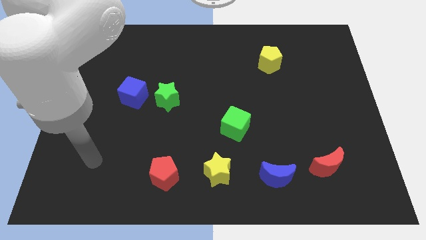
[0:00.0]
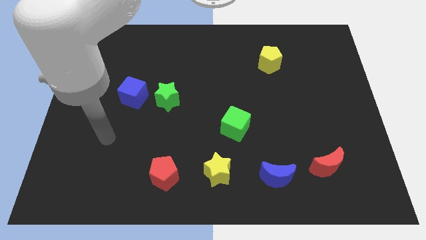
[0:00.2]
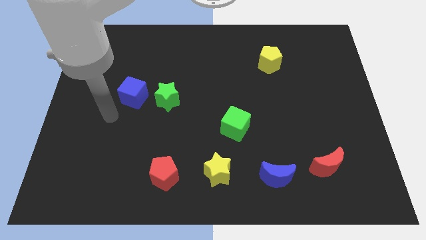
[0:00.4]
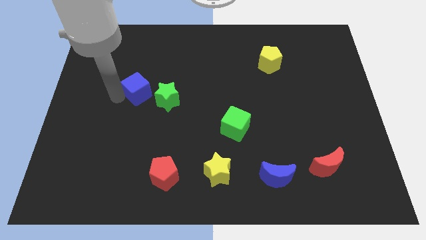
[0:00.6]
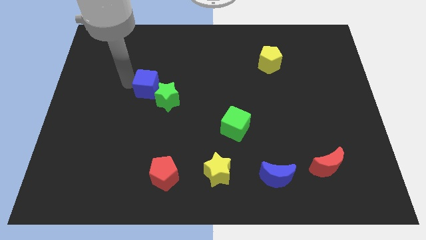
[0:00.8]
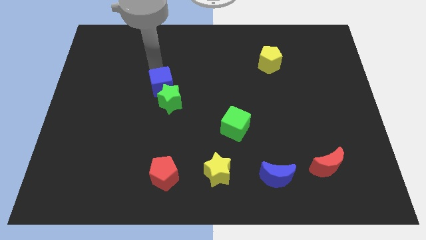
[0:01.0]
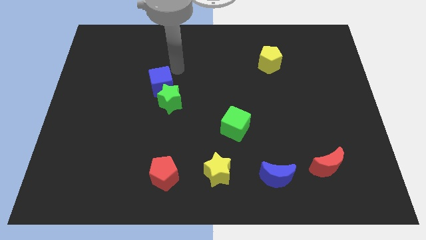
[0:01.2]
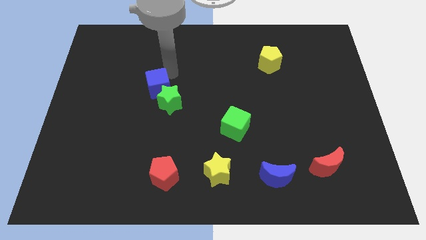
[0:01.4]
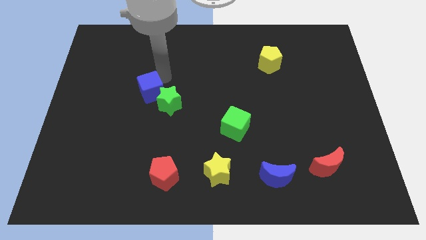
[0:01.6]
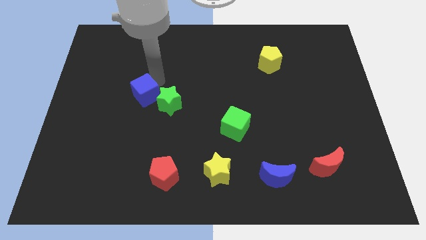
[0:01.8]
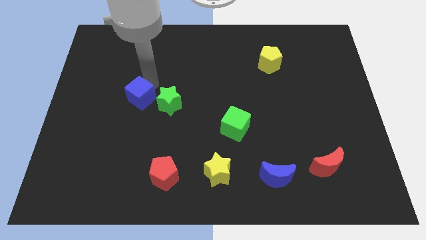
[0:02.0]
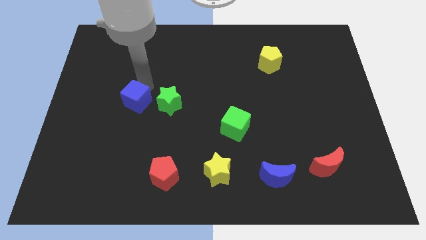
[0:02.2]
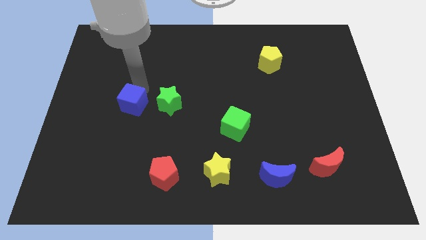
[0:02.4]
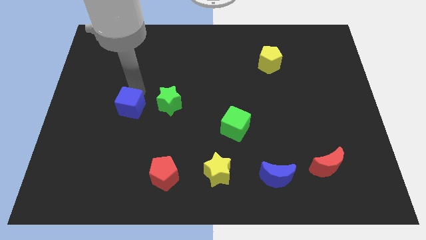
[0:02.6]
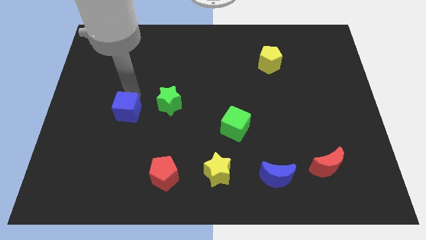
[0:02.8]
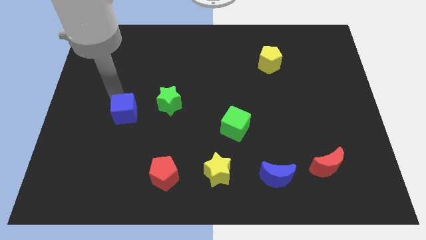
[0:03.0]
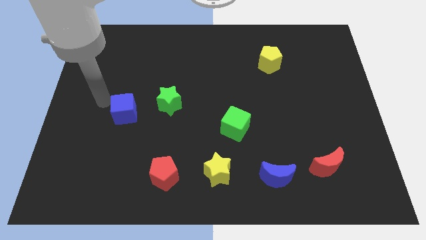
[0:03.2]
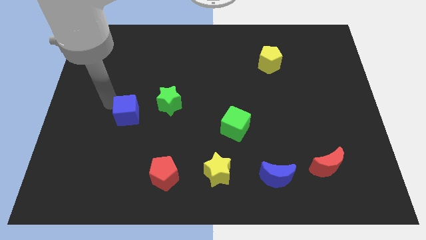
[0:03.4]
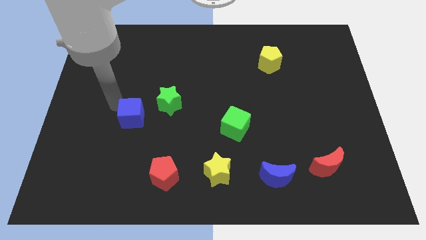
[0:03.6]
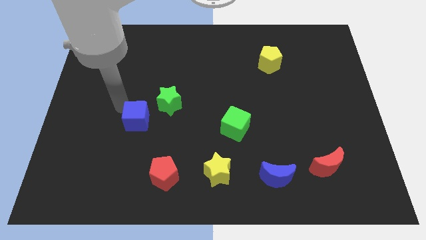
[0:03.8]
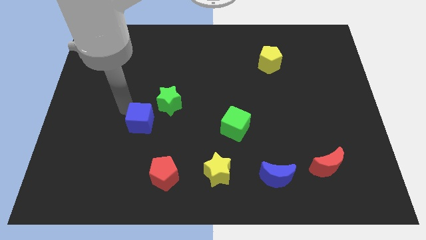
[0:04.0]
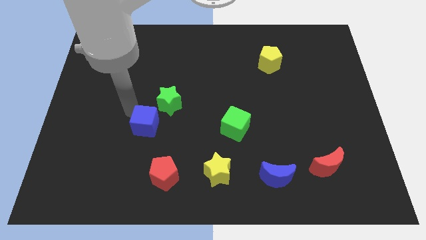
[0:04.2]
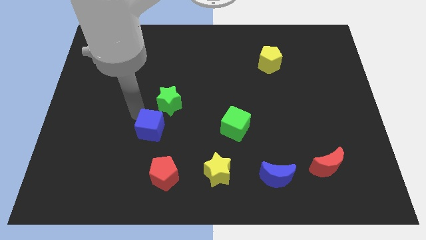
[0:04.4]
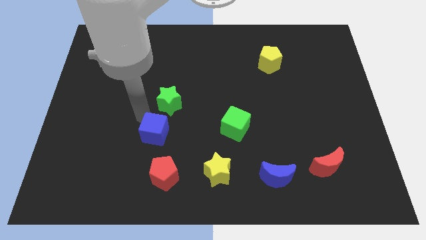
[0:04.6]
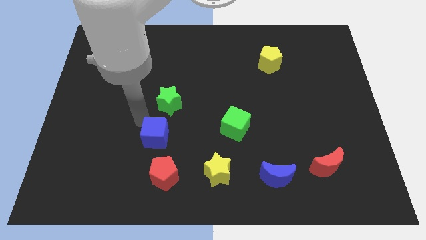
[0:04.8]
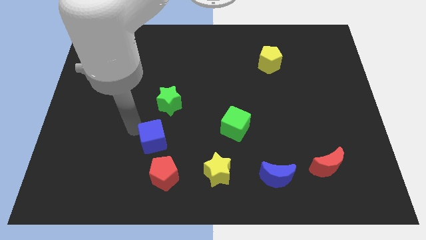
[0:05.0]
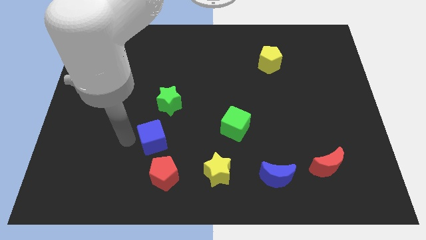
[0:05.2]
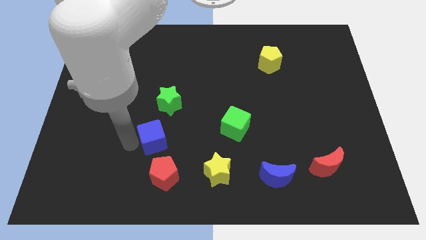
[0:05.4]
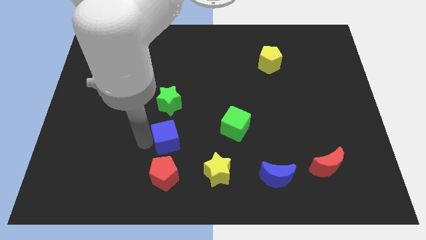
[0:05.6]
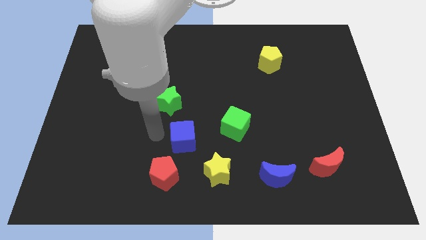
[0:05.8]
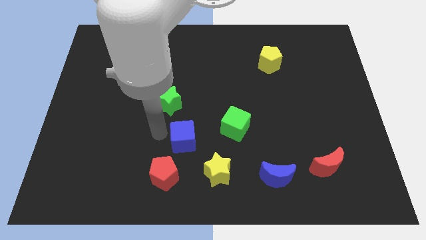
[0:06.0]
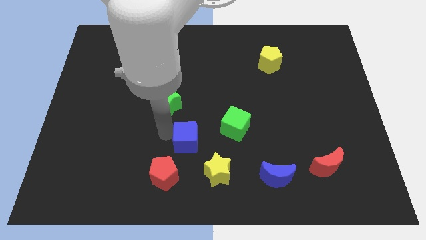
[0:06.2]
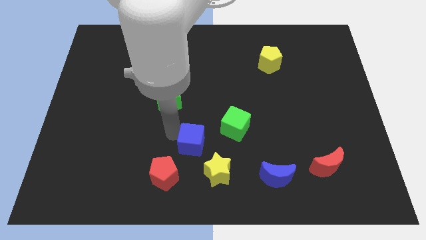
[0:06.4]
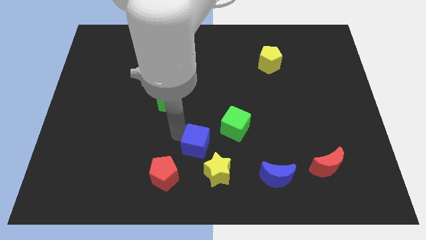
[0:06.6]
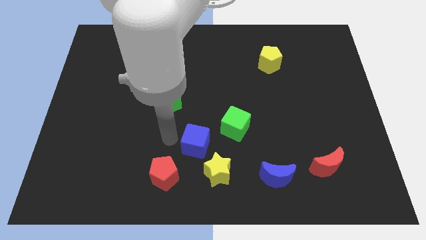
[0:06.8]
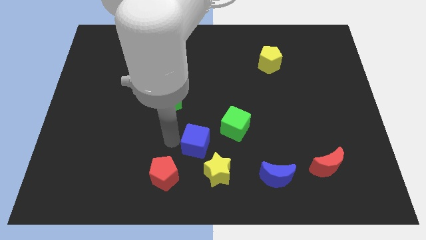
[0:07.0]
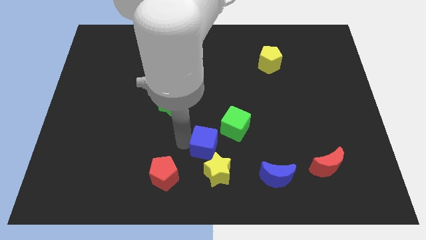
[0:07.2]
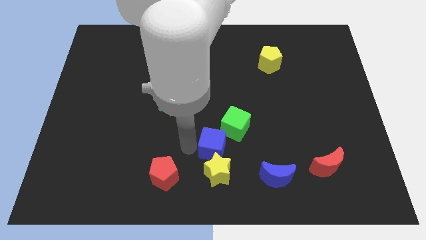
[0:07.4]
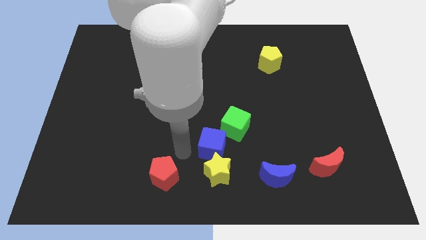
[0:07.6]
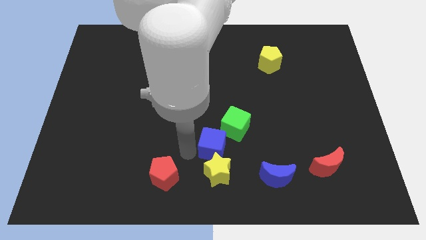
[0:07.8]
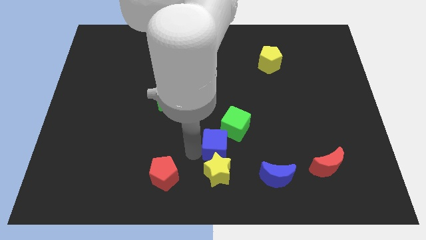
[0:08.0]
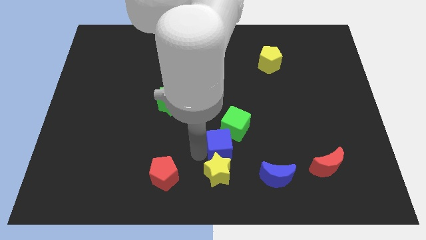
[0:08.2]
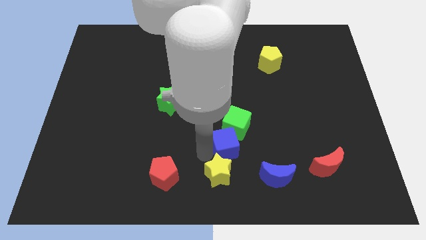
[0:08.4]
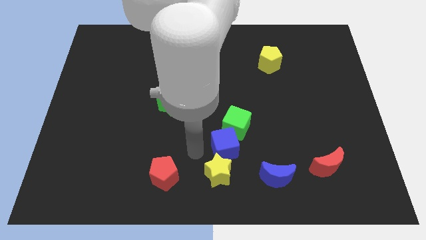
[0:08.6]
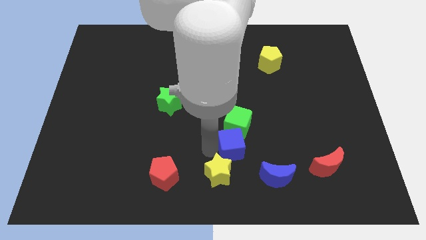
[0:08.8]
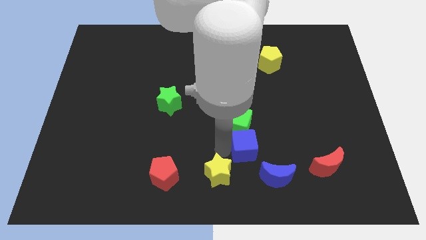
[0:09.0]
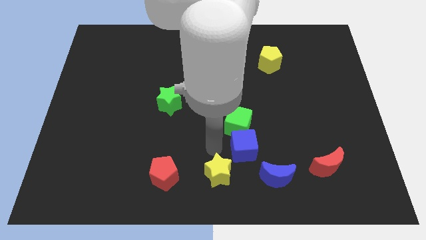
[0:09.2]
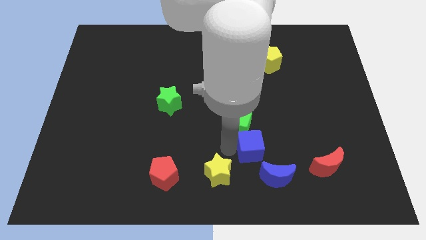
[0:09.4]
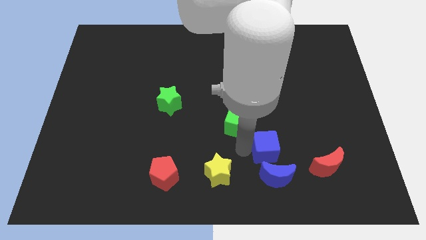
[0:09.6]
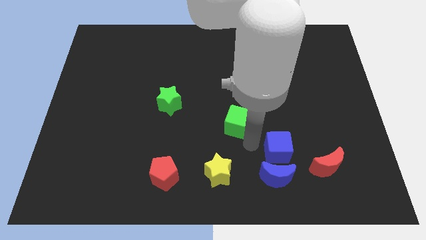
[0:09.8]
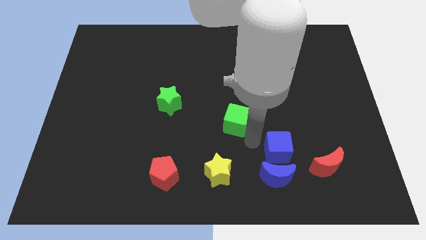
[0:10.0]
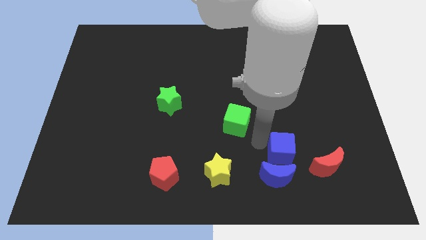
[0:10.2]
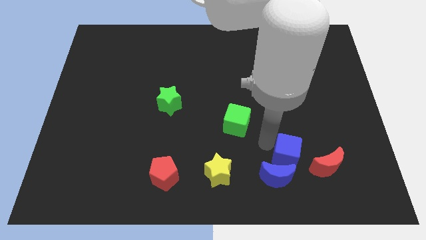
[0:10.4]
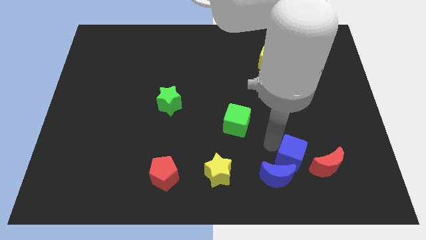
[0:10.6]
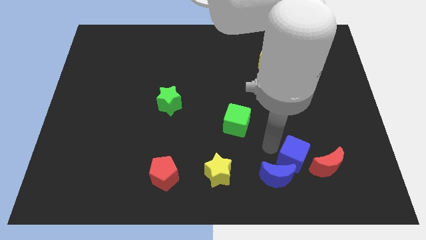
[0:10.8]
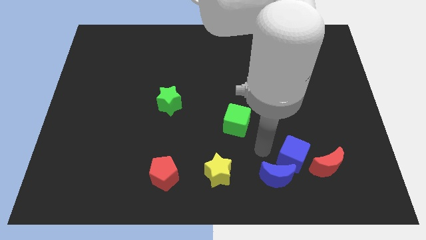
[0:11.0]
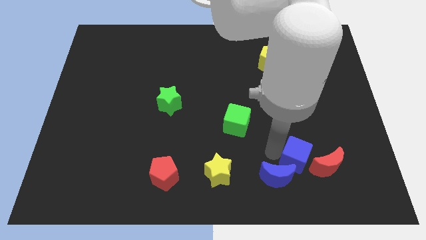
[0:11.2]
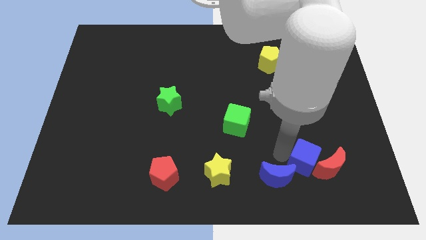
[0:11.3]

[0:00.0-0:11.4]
slide the blue cube to the red moon

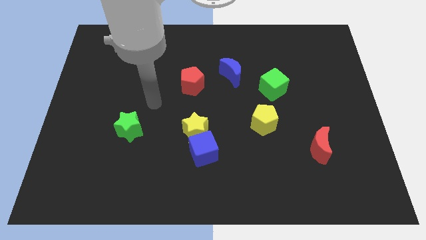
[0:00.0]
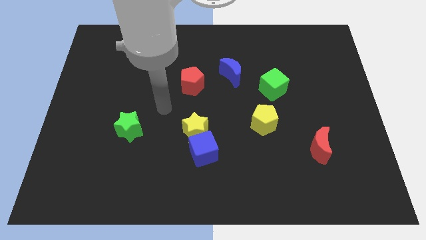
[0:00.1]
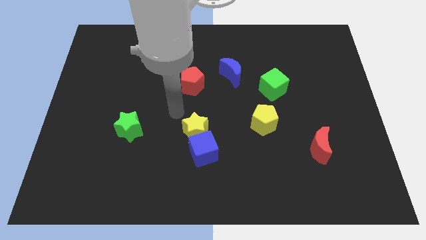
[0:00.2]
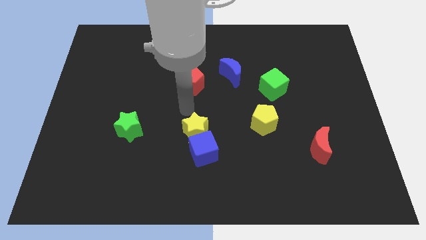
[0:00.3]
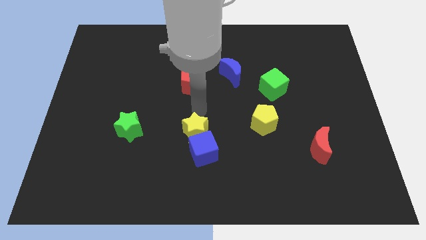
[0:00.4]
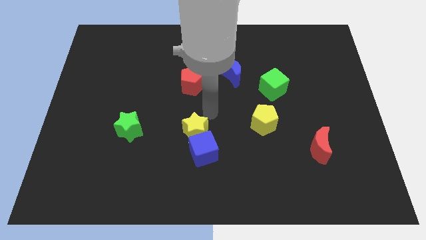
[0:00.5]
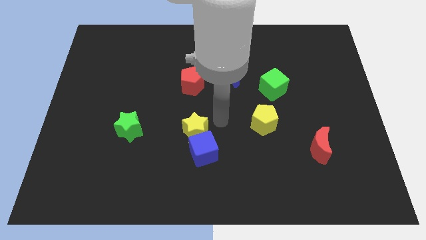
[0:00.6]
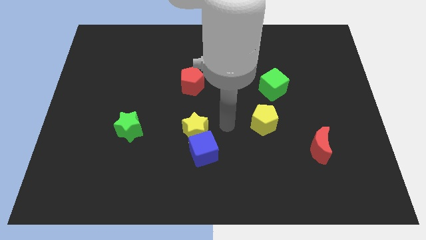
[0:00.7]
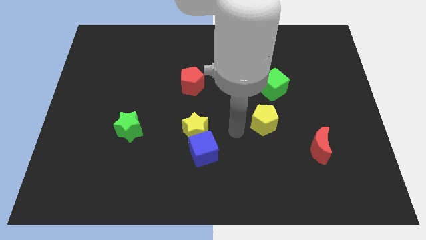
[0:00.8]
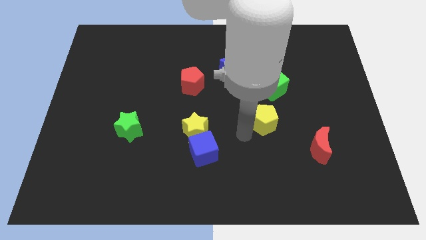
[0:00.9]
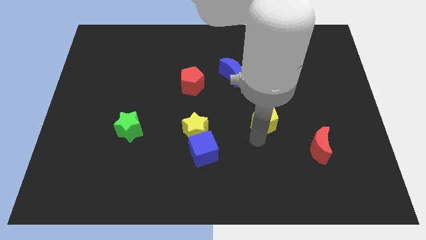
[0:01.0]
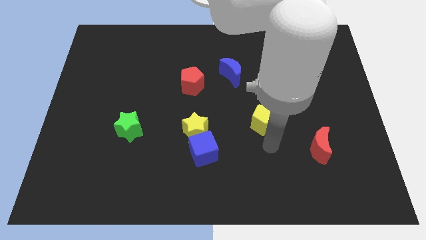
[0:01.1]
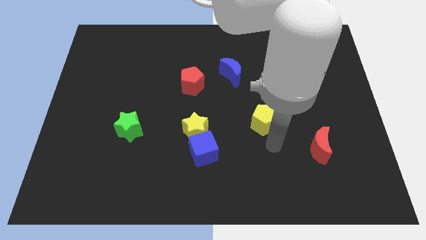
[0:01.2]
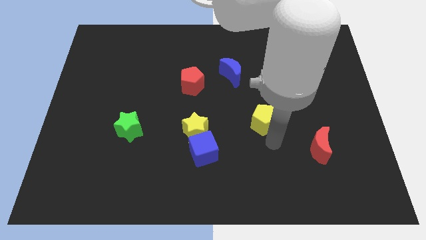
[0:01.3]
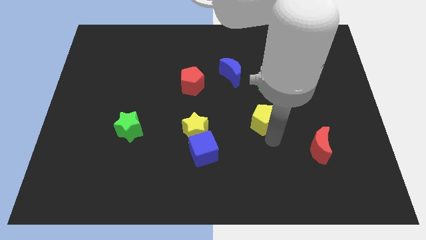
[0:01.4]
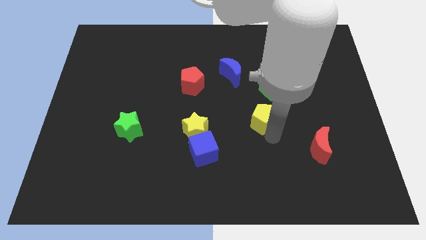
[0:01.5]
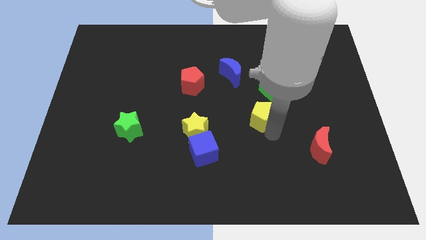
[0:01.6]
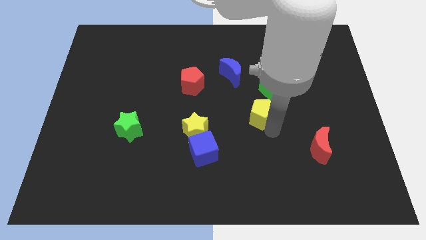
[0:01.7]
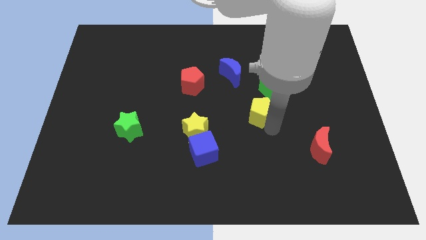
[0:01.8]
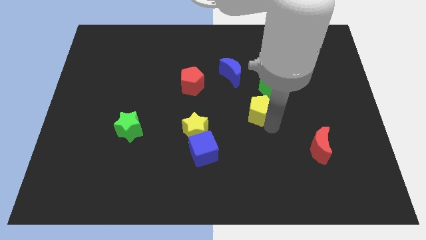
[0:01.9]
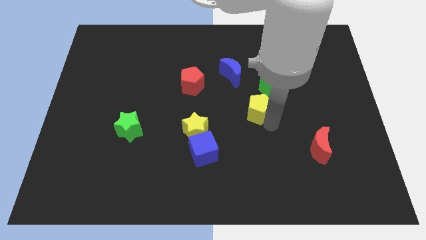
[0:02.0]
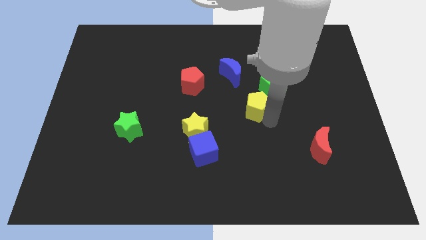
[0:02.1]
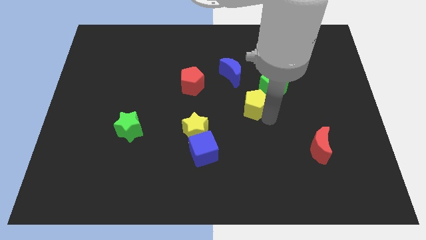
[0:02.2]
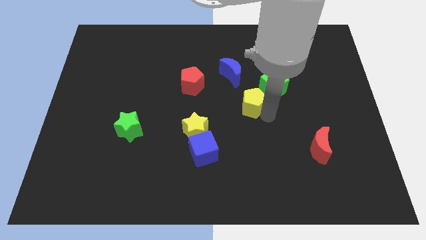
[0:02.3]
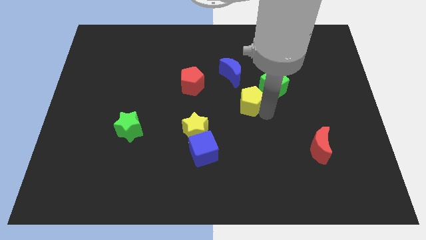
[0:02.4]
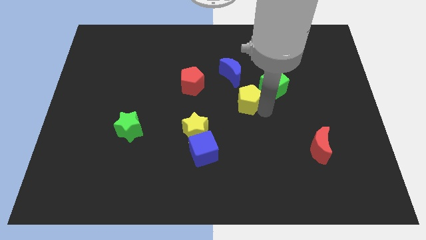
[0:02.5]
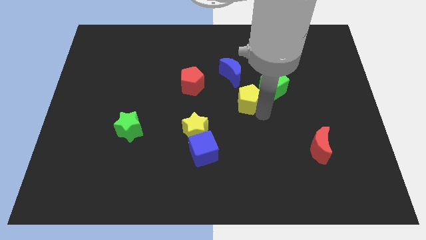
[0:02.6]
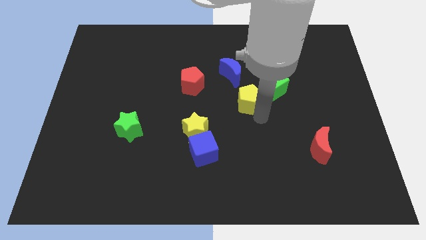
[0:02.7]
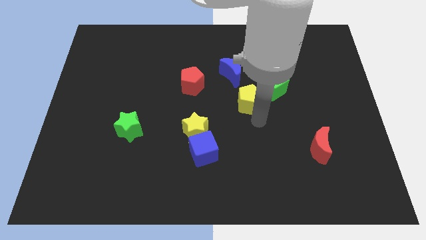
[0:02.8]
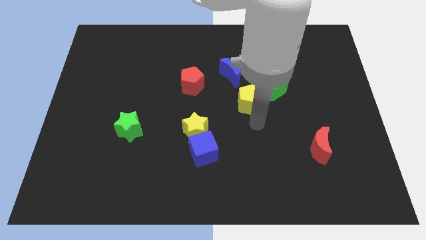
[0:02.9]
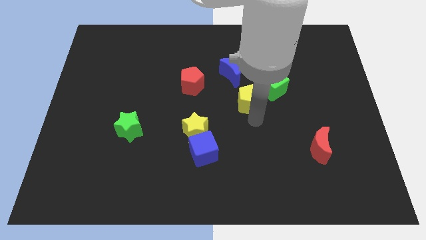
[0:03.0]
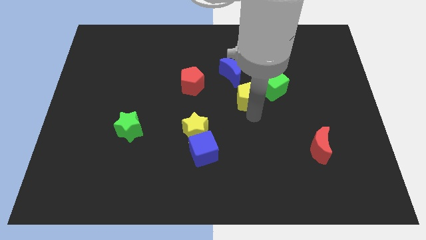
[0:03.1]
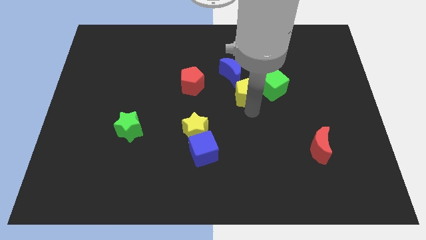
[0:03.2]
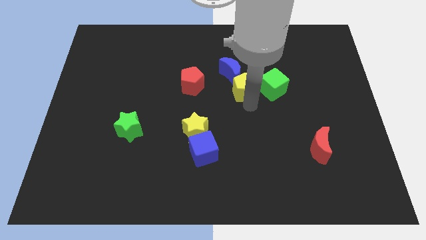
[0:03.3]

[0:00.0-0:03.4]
put the yellow pentagon next to the blue moon
